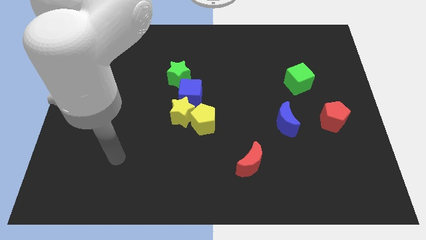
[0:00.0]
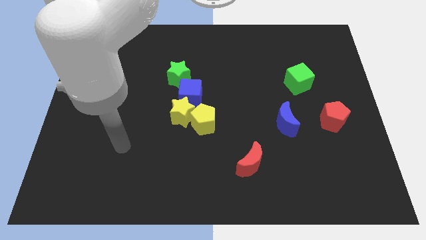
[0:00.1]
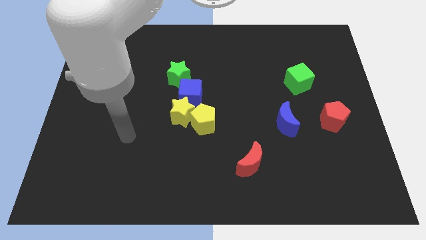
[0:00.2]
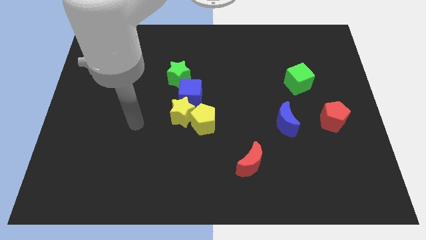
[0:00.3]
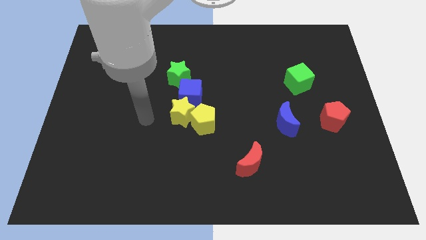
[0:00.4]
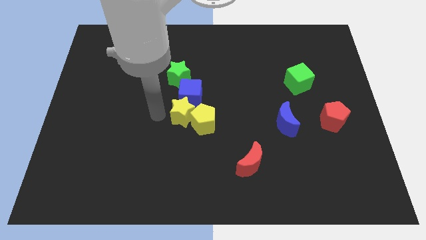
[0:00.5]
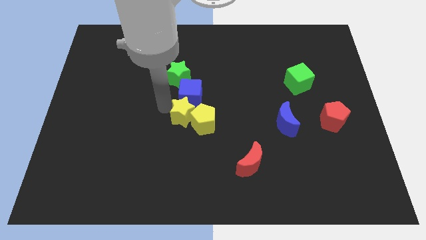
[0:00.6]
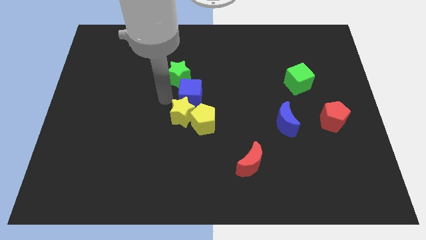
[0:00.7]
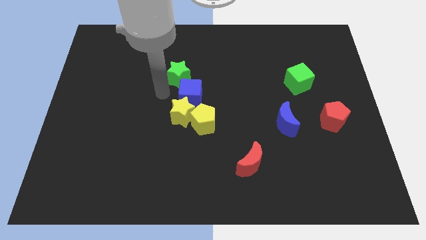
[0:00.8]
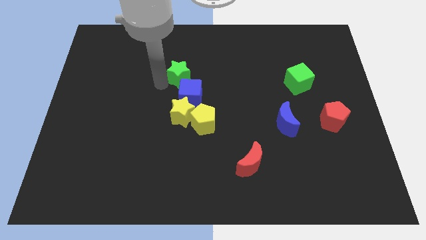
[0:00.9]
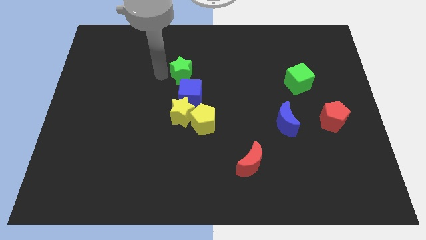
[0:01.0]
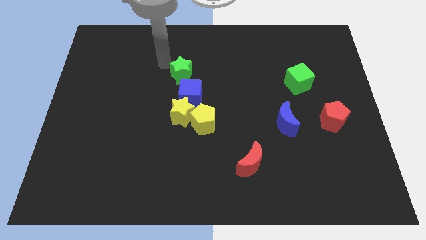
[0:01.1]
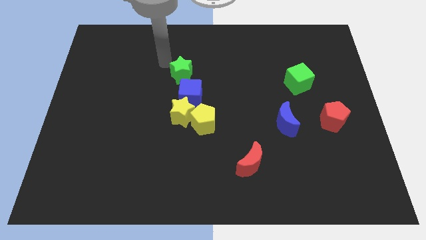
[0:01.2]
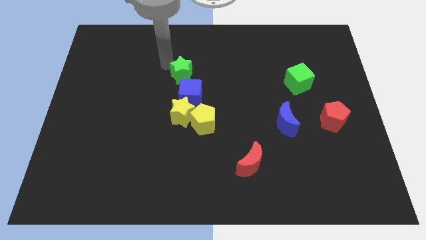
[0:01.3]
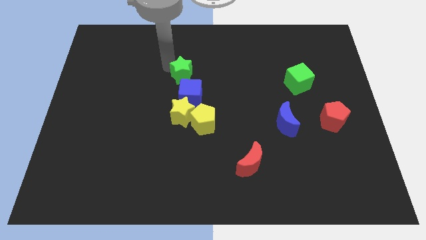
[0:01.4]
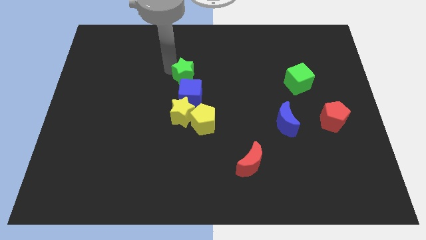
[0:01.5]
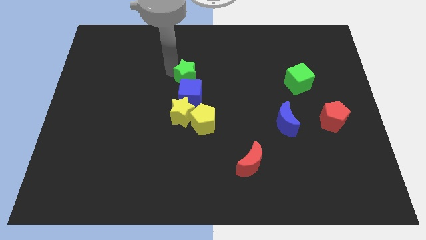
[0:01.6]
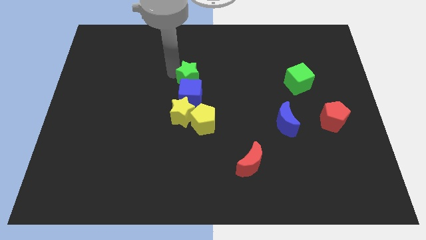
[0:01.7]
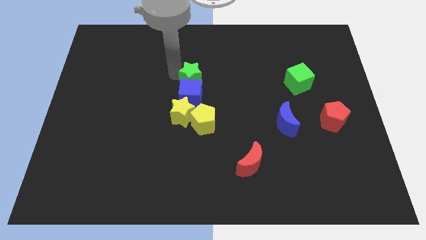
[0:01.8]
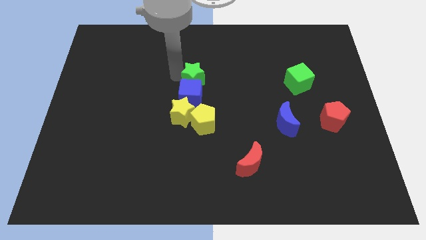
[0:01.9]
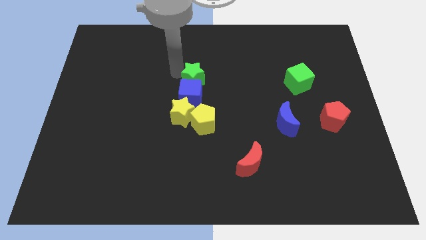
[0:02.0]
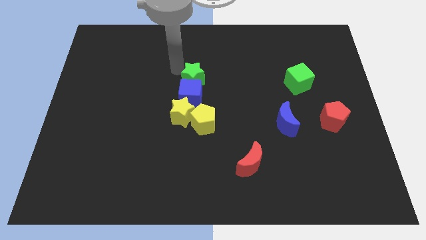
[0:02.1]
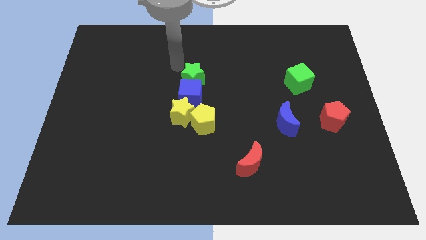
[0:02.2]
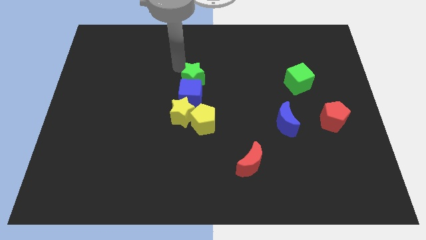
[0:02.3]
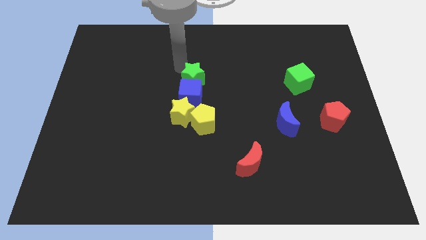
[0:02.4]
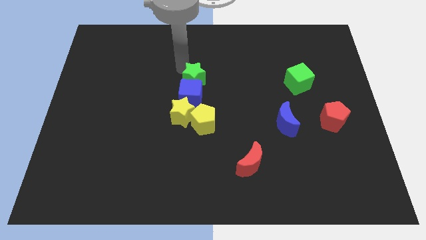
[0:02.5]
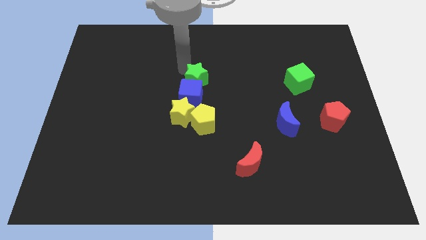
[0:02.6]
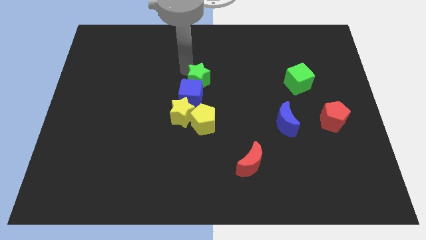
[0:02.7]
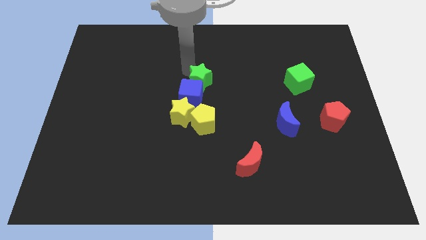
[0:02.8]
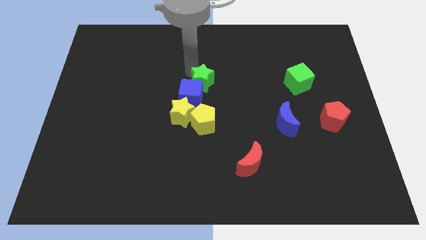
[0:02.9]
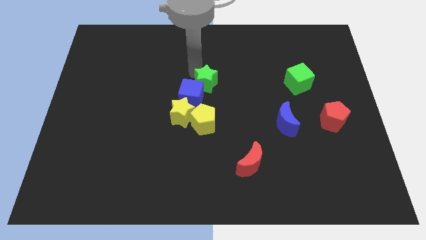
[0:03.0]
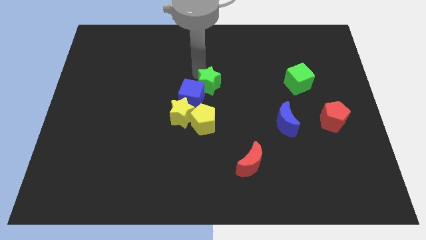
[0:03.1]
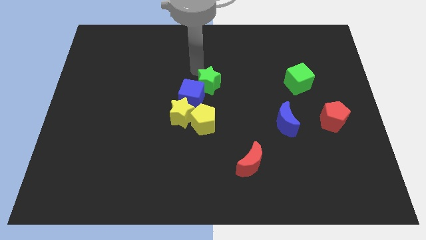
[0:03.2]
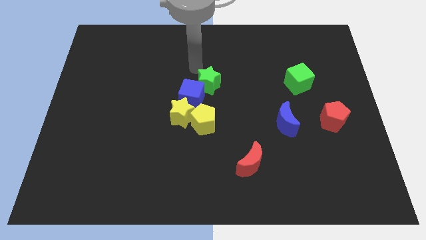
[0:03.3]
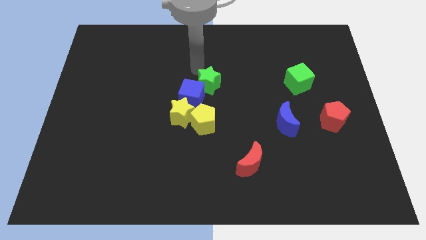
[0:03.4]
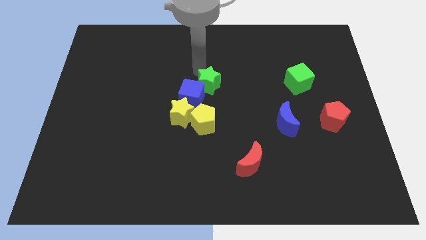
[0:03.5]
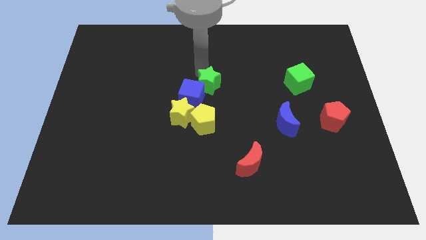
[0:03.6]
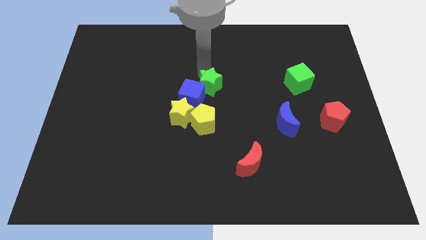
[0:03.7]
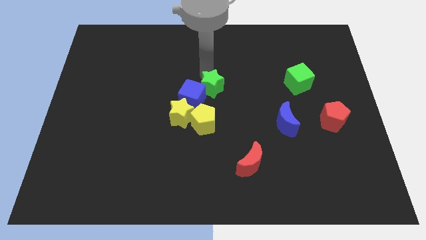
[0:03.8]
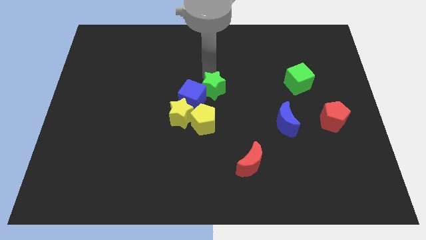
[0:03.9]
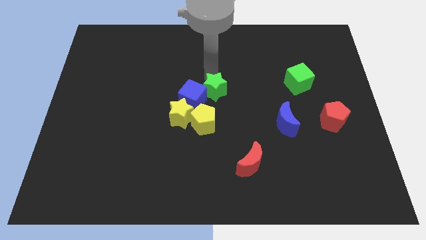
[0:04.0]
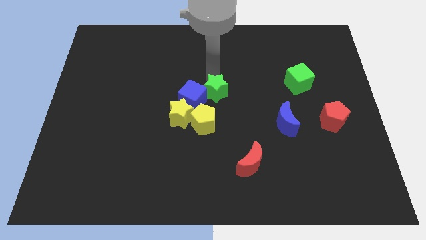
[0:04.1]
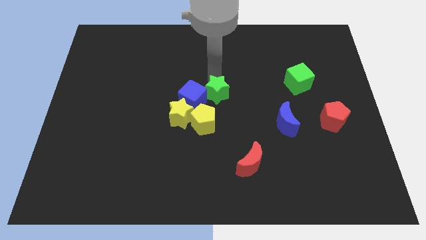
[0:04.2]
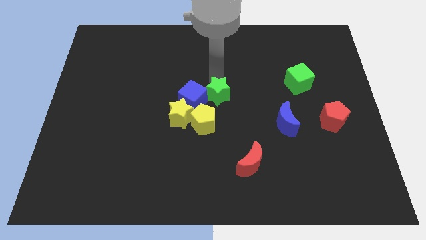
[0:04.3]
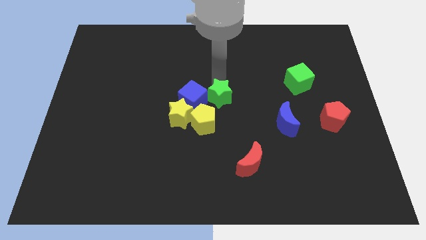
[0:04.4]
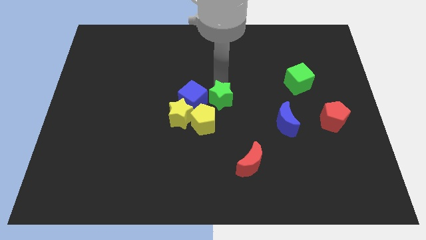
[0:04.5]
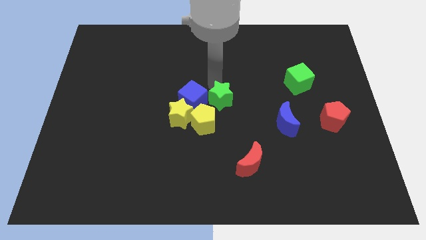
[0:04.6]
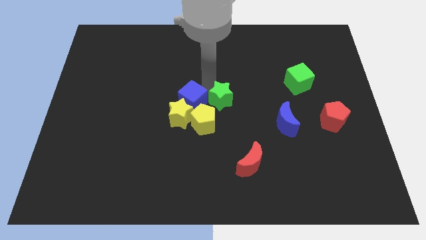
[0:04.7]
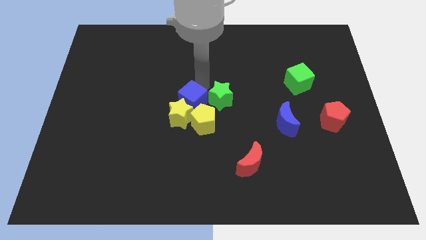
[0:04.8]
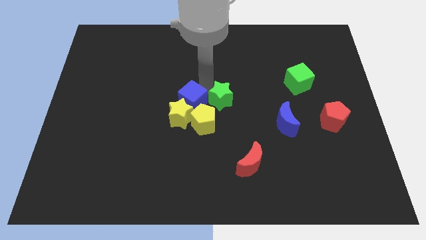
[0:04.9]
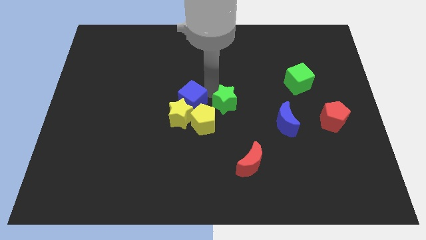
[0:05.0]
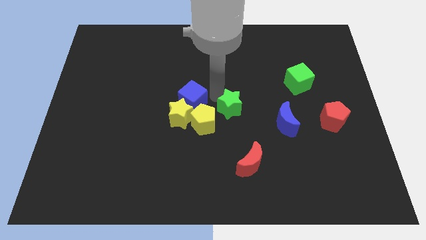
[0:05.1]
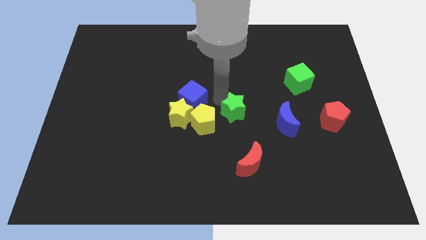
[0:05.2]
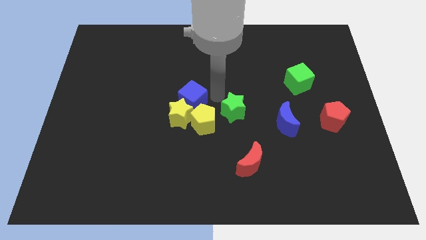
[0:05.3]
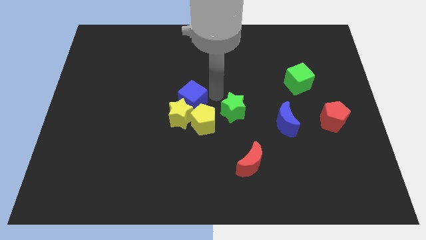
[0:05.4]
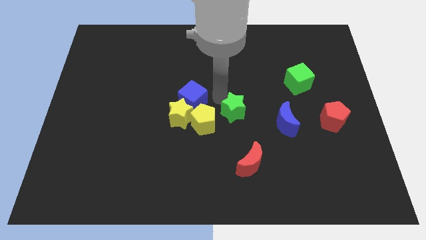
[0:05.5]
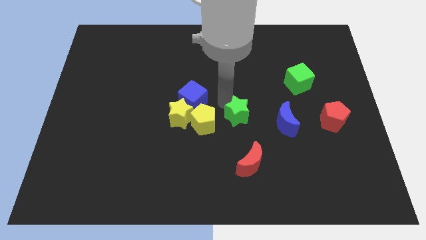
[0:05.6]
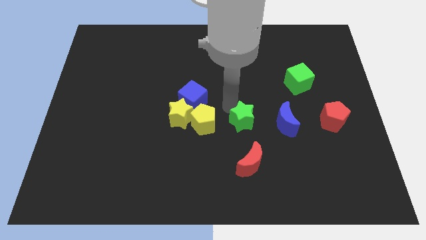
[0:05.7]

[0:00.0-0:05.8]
push the green star diagonally down and right

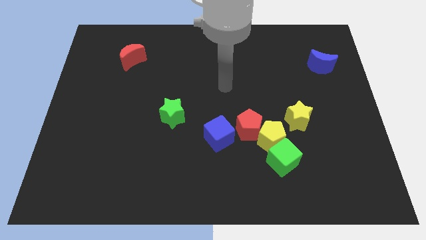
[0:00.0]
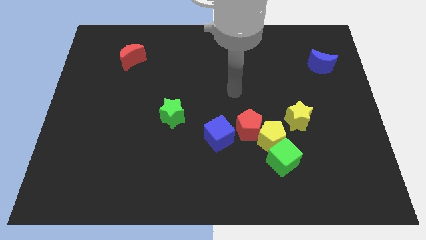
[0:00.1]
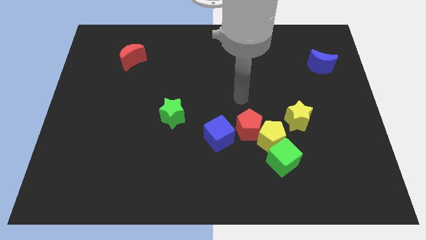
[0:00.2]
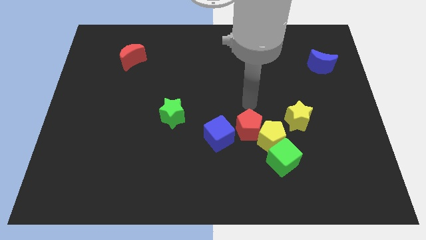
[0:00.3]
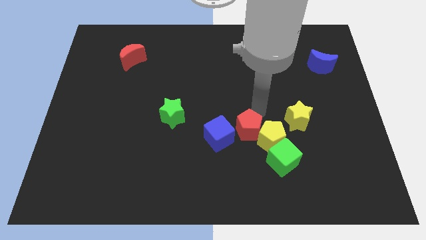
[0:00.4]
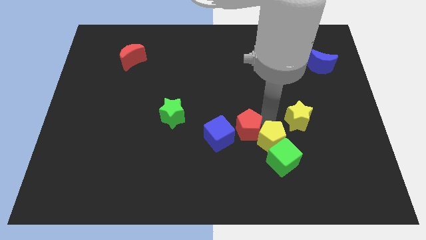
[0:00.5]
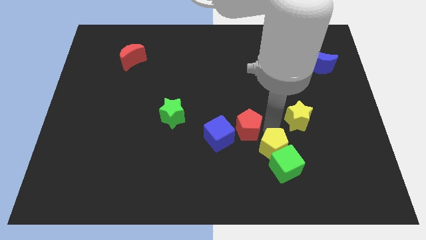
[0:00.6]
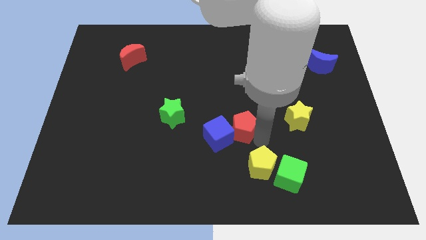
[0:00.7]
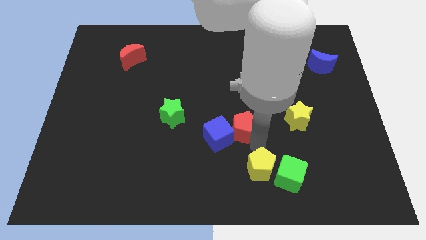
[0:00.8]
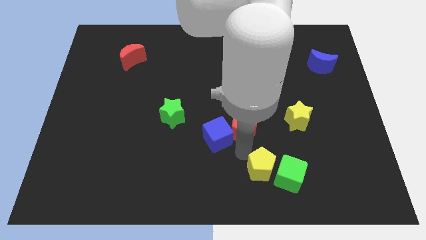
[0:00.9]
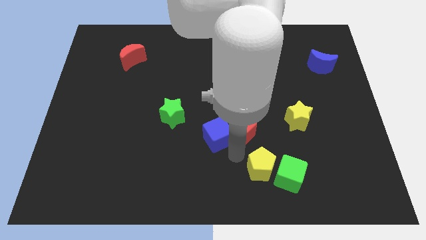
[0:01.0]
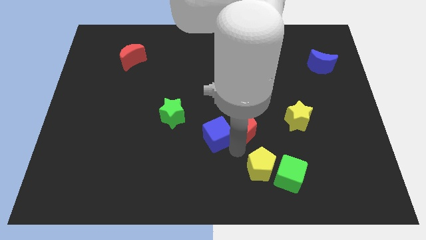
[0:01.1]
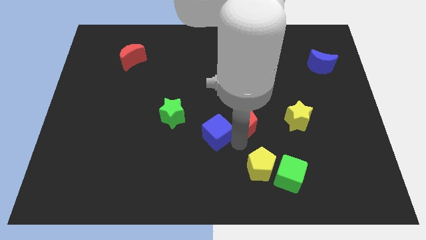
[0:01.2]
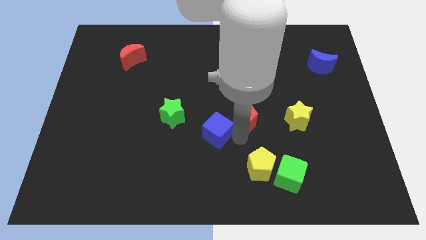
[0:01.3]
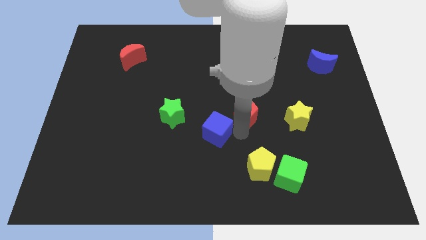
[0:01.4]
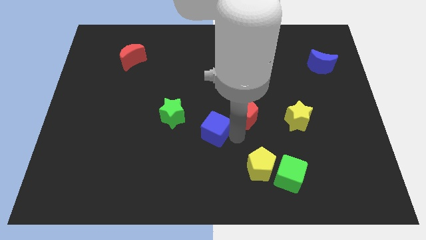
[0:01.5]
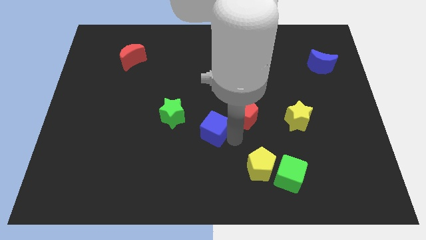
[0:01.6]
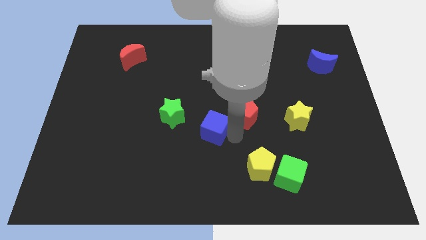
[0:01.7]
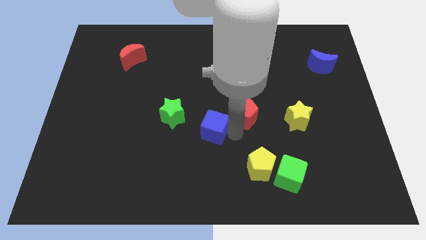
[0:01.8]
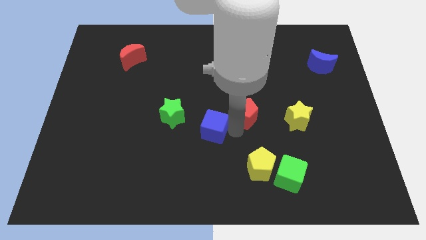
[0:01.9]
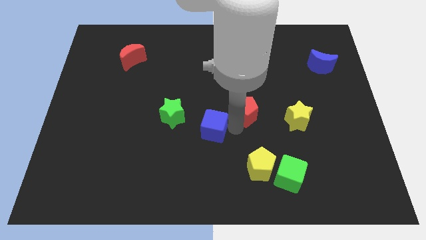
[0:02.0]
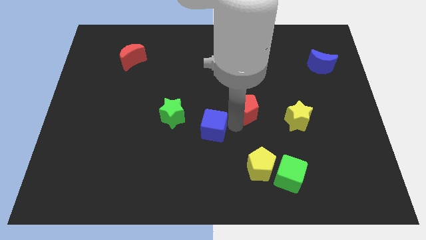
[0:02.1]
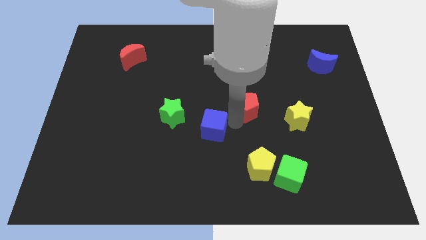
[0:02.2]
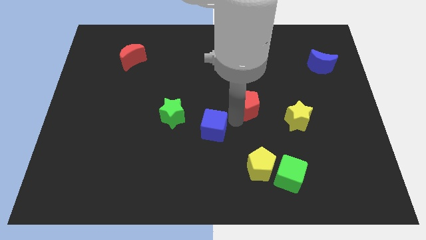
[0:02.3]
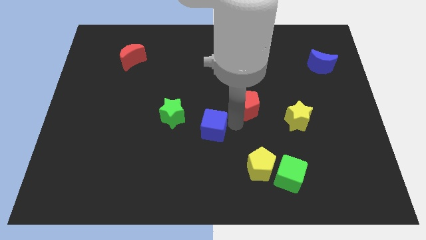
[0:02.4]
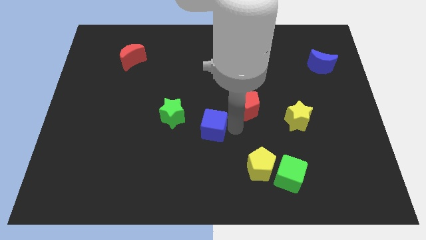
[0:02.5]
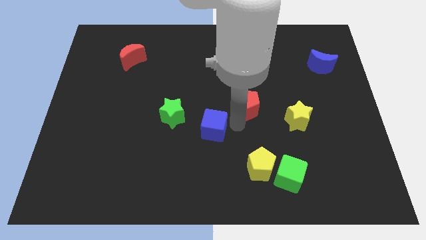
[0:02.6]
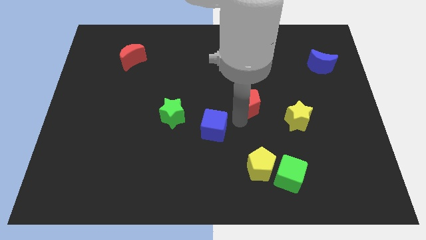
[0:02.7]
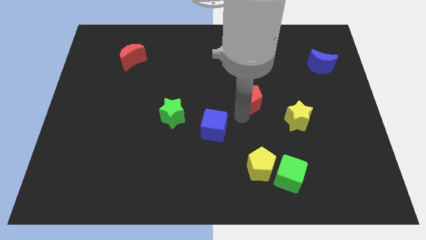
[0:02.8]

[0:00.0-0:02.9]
slide the red pentagon up a little bit
